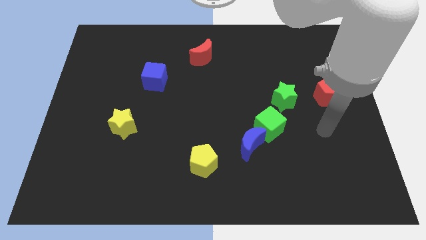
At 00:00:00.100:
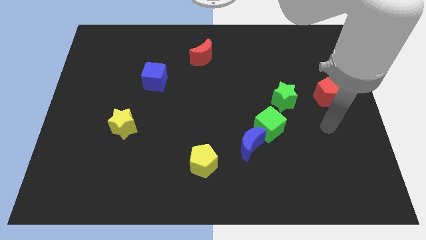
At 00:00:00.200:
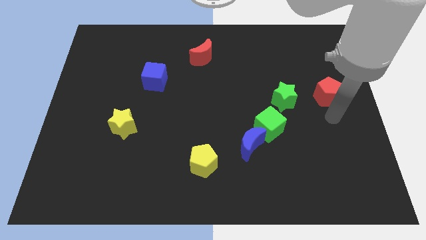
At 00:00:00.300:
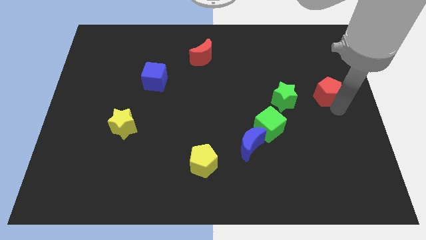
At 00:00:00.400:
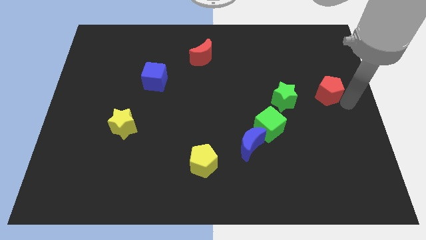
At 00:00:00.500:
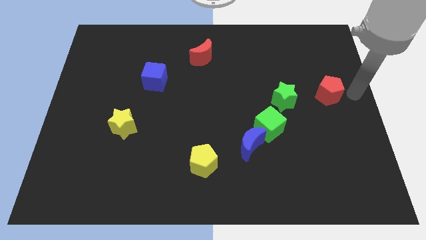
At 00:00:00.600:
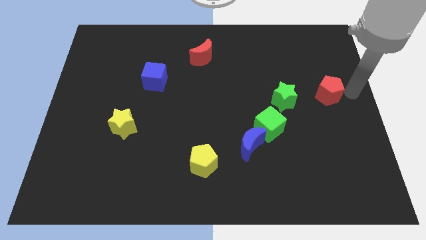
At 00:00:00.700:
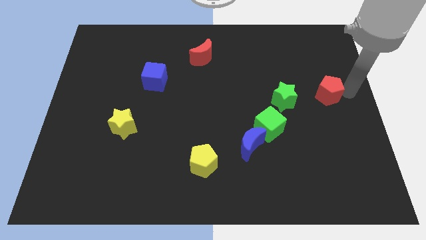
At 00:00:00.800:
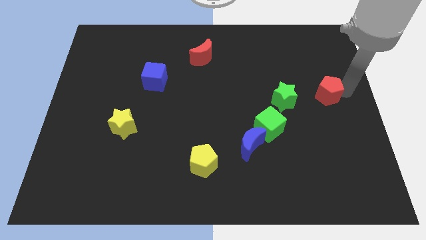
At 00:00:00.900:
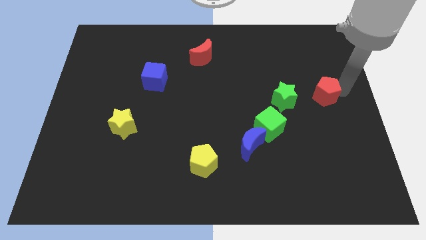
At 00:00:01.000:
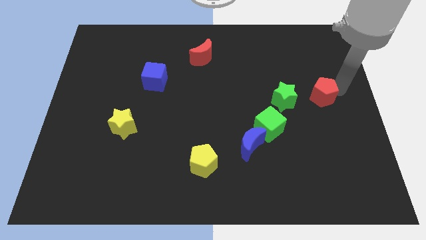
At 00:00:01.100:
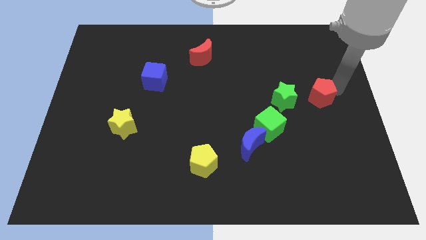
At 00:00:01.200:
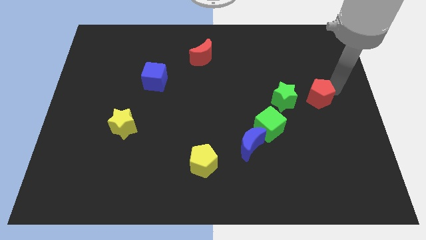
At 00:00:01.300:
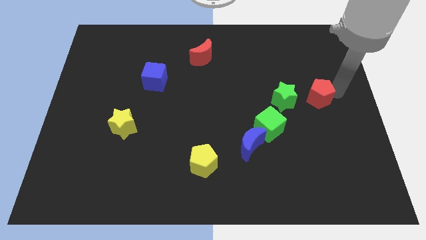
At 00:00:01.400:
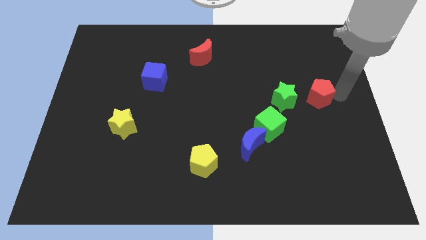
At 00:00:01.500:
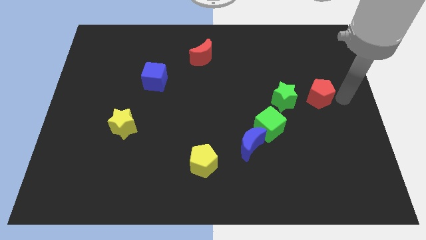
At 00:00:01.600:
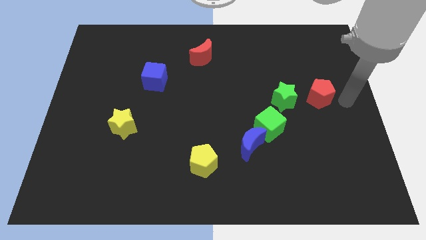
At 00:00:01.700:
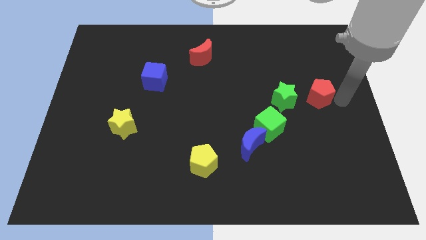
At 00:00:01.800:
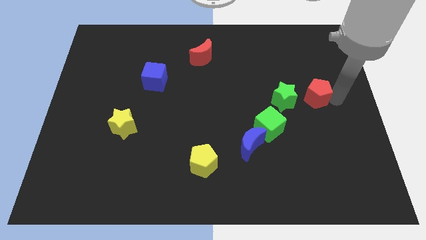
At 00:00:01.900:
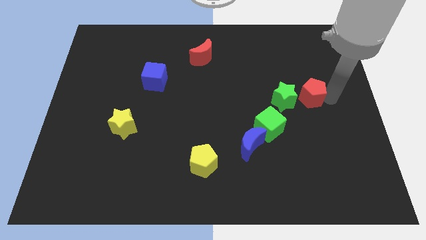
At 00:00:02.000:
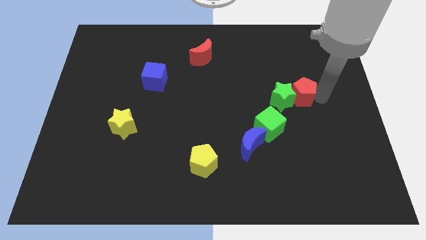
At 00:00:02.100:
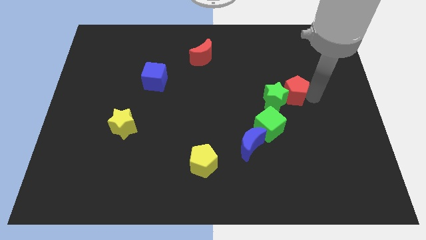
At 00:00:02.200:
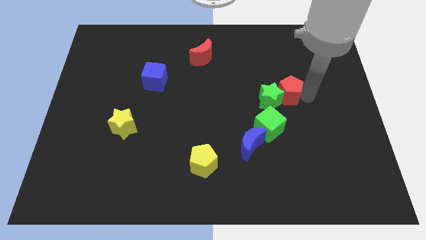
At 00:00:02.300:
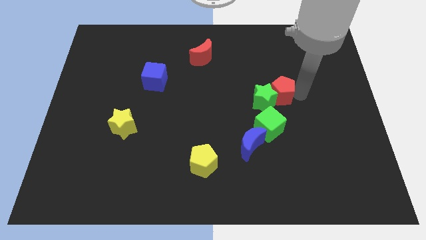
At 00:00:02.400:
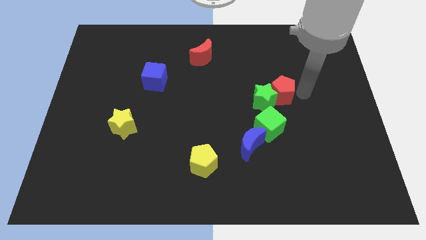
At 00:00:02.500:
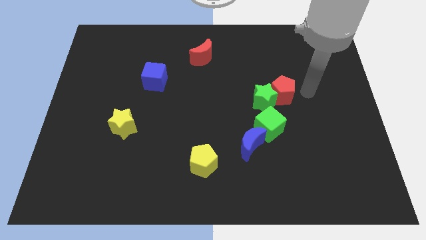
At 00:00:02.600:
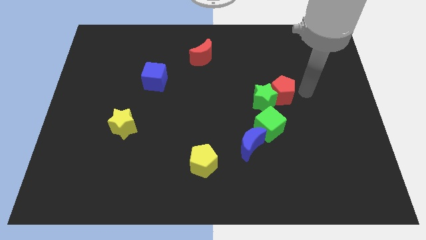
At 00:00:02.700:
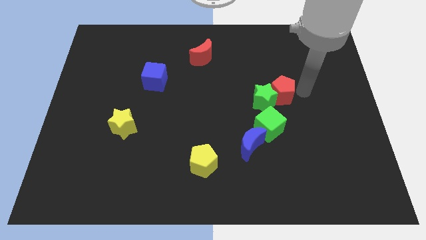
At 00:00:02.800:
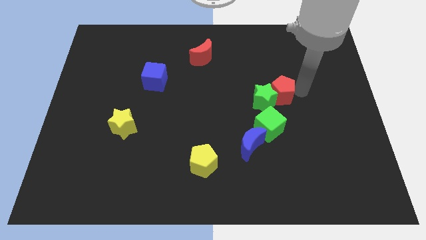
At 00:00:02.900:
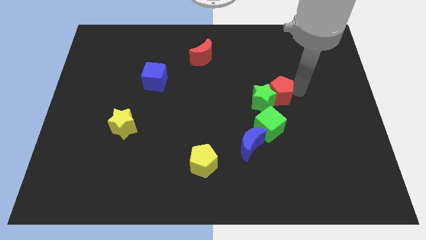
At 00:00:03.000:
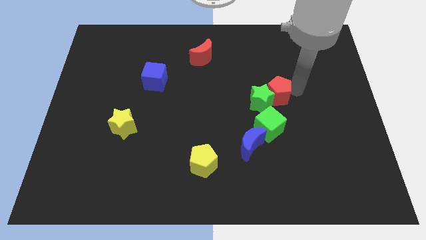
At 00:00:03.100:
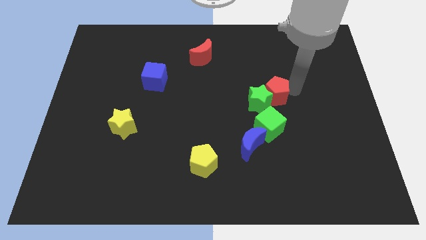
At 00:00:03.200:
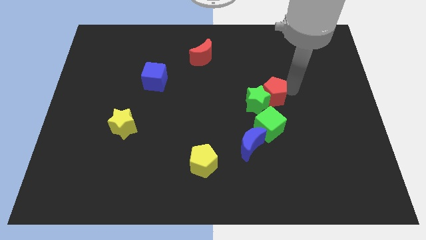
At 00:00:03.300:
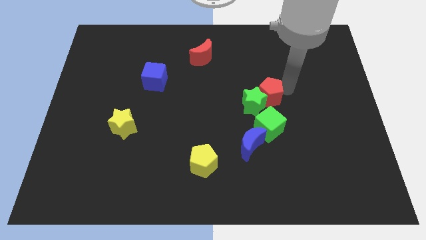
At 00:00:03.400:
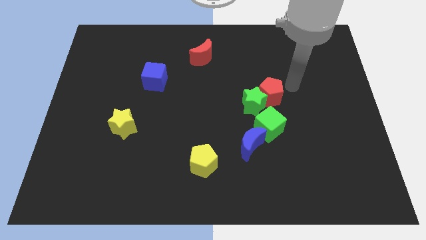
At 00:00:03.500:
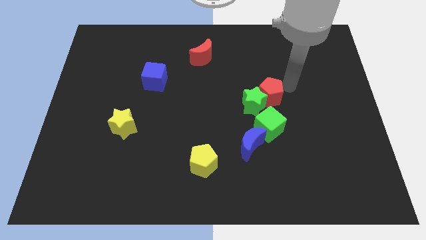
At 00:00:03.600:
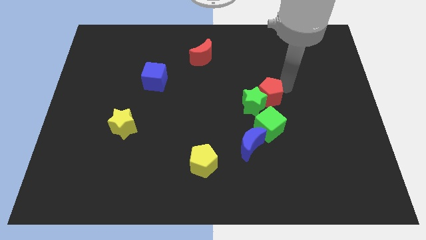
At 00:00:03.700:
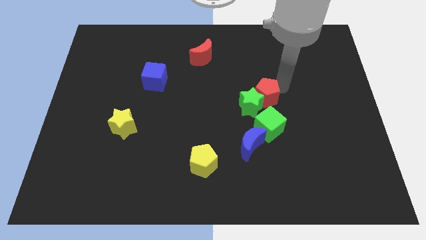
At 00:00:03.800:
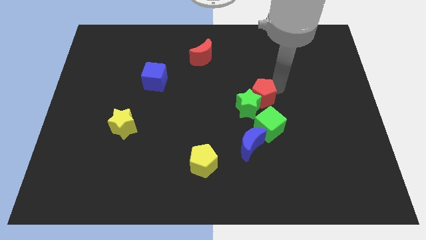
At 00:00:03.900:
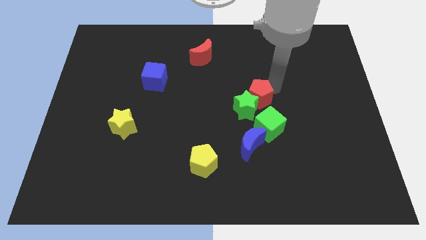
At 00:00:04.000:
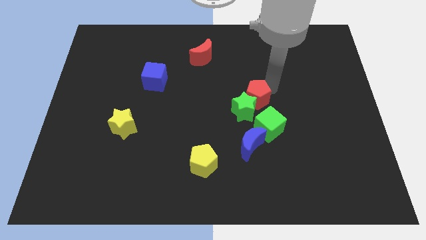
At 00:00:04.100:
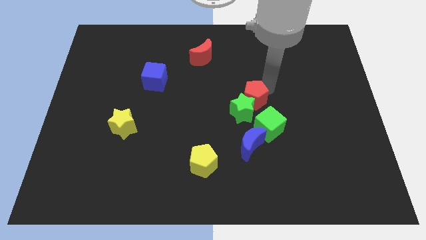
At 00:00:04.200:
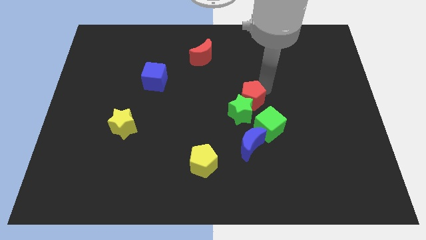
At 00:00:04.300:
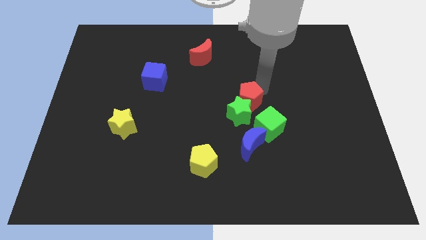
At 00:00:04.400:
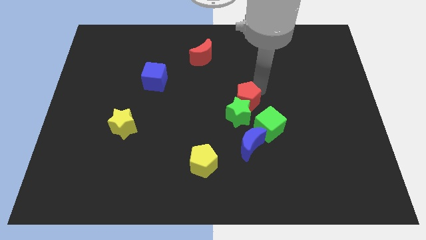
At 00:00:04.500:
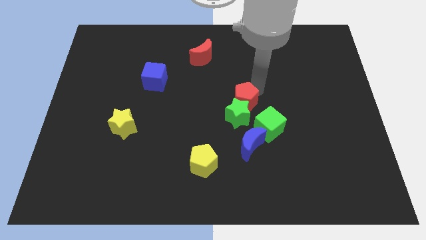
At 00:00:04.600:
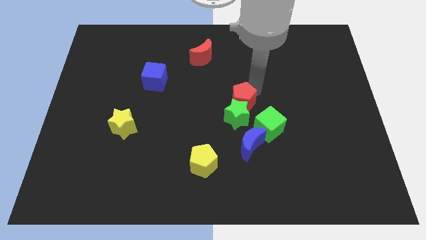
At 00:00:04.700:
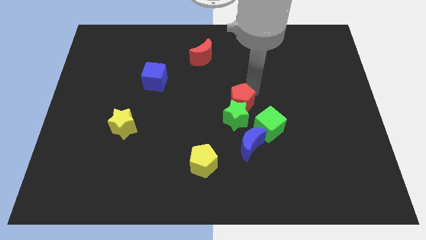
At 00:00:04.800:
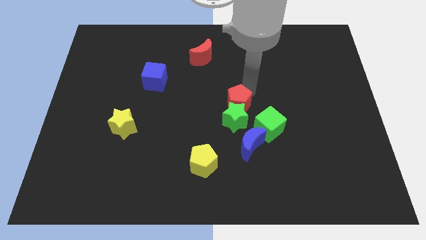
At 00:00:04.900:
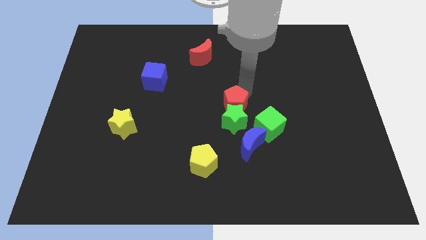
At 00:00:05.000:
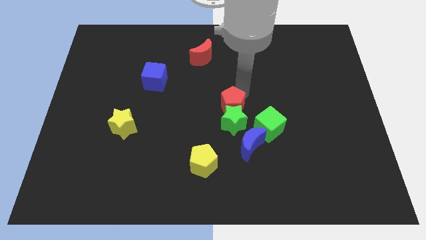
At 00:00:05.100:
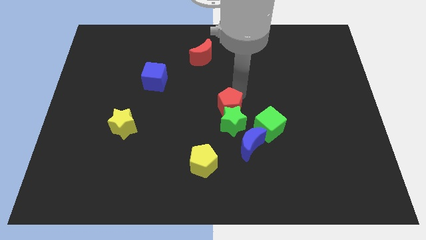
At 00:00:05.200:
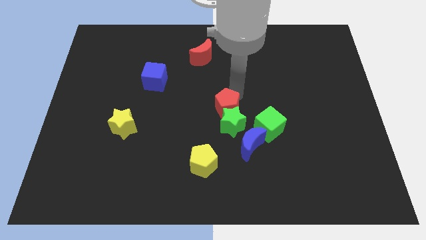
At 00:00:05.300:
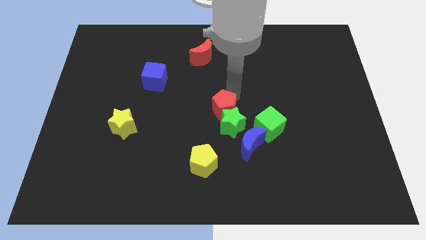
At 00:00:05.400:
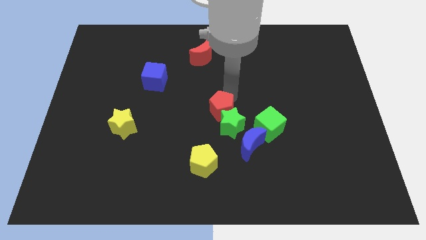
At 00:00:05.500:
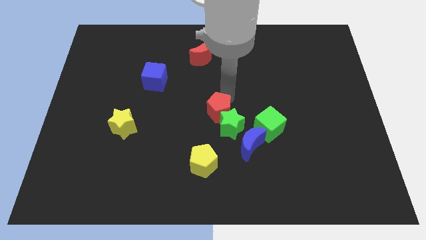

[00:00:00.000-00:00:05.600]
put the red pentagon to the left side of the green cube

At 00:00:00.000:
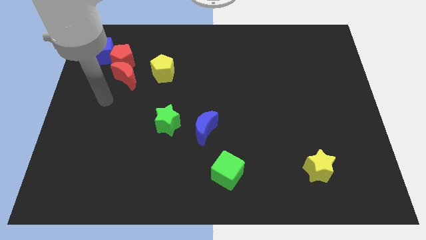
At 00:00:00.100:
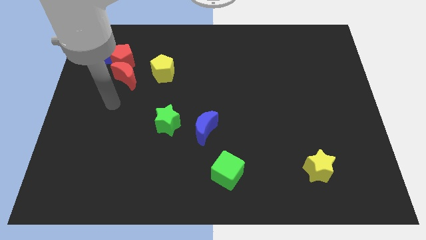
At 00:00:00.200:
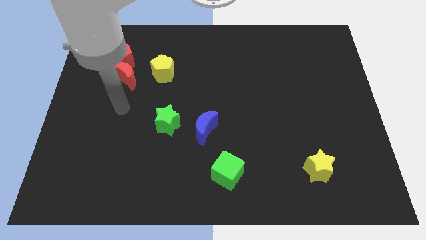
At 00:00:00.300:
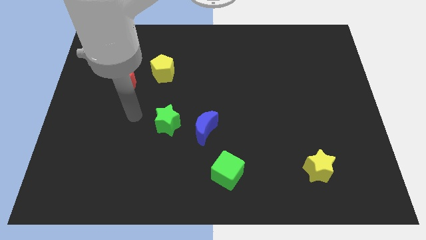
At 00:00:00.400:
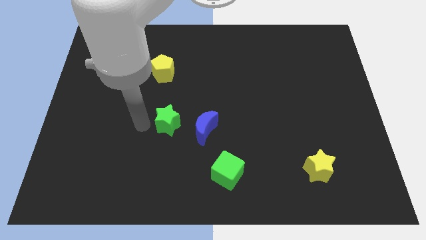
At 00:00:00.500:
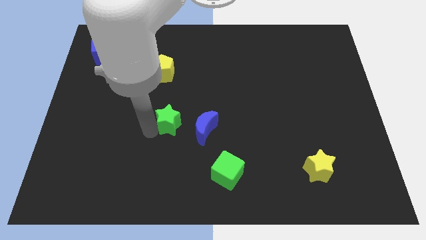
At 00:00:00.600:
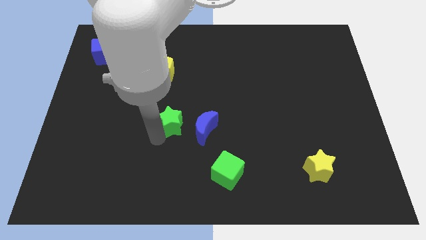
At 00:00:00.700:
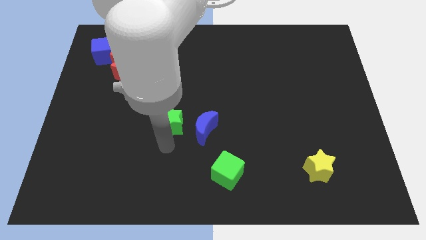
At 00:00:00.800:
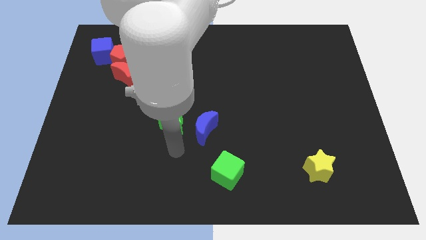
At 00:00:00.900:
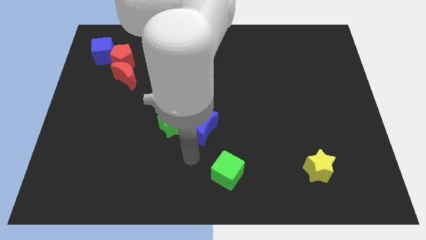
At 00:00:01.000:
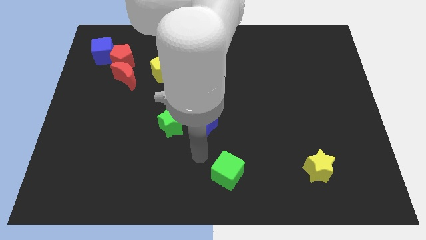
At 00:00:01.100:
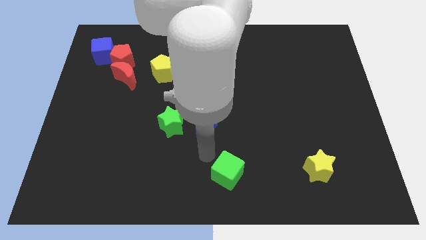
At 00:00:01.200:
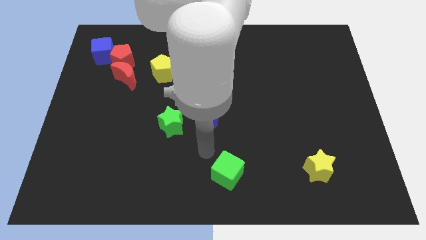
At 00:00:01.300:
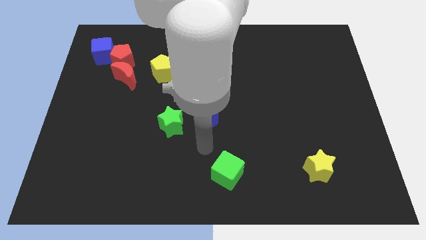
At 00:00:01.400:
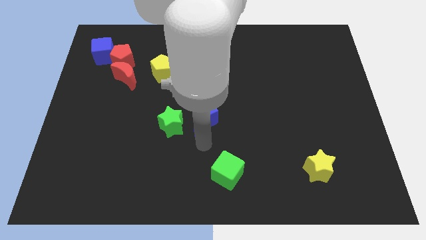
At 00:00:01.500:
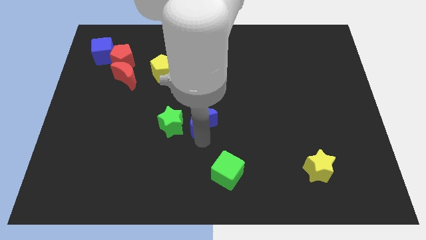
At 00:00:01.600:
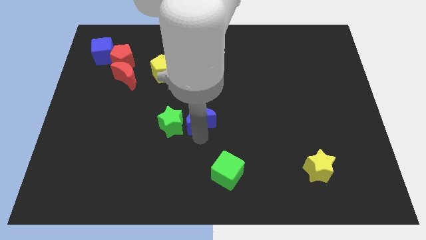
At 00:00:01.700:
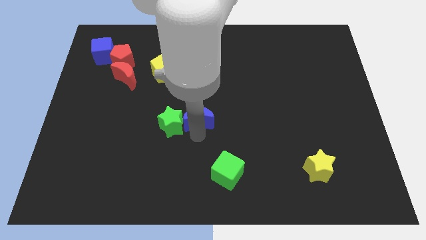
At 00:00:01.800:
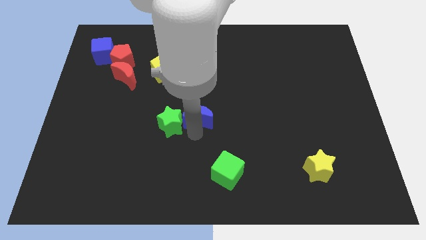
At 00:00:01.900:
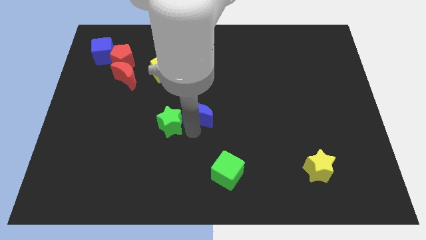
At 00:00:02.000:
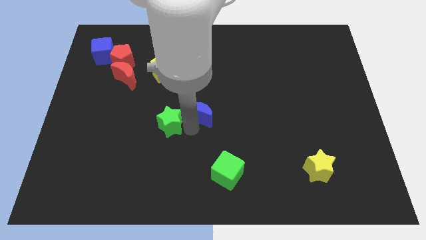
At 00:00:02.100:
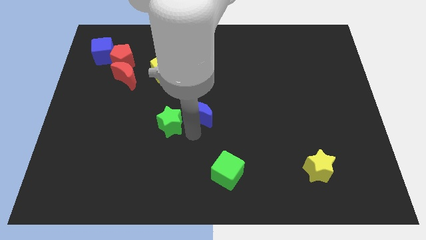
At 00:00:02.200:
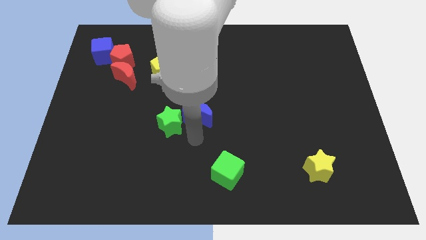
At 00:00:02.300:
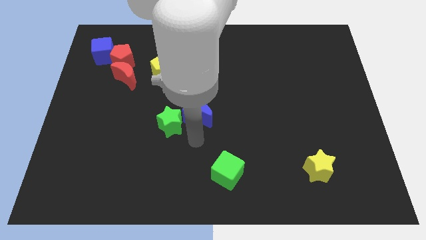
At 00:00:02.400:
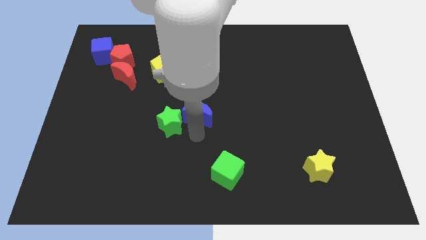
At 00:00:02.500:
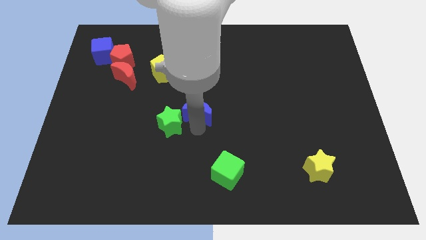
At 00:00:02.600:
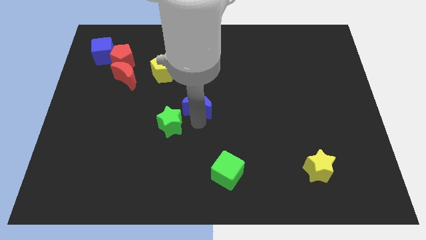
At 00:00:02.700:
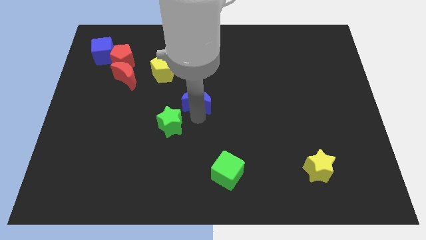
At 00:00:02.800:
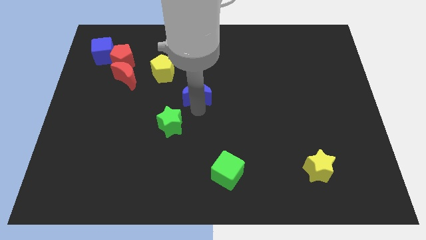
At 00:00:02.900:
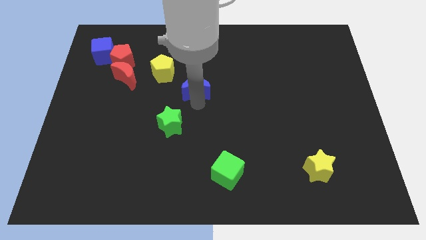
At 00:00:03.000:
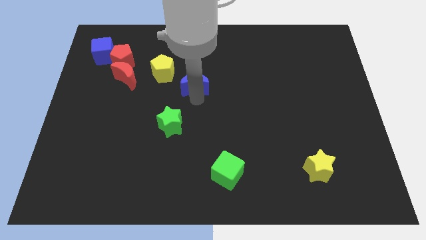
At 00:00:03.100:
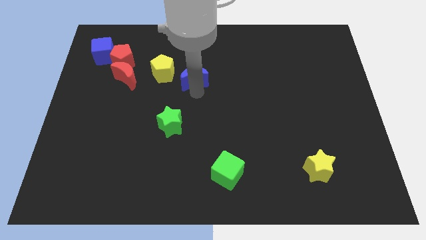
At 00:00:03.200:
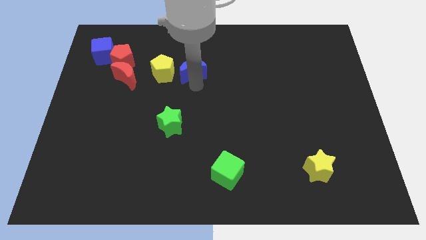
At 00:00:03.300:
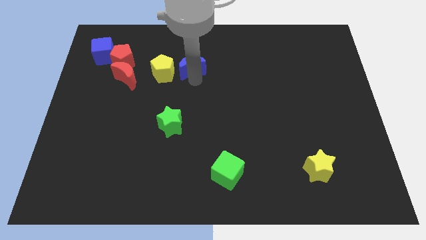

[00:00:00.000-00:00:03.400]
move the blue moon to the top right of the yellow pentagon
